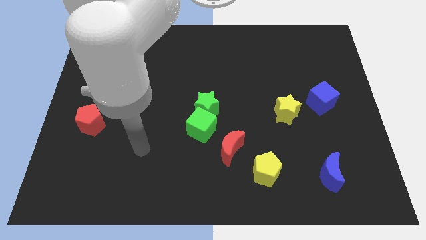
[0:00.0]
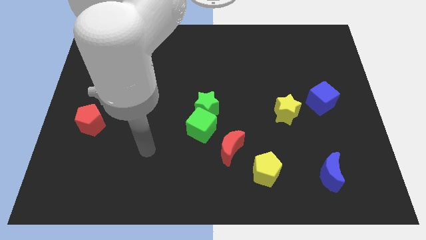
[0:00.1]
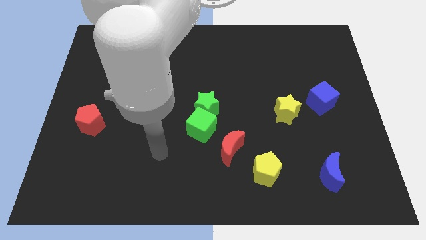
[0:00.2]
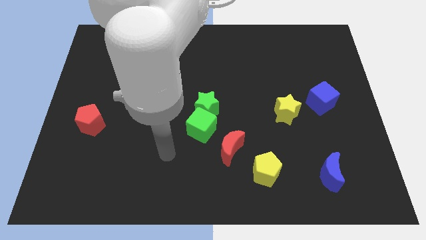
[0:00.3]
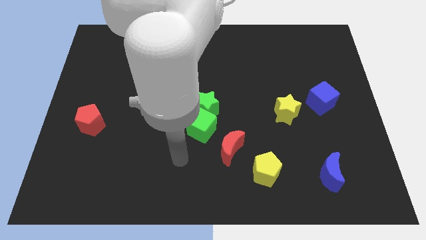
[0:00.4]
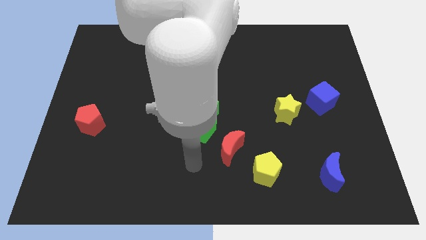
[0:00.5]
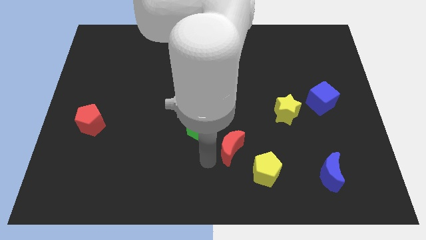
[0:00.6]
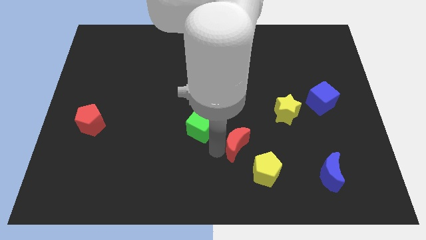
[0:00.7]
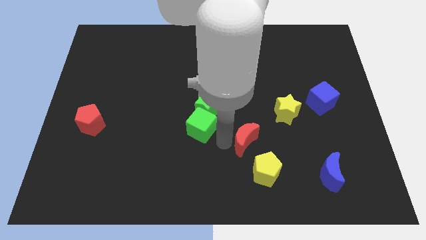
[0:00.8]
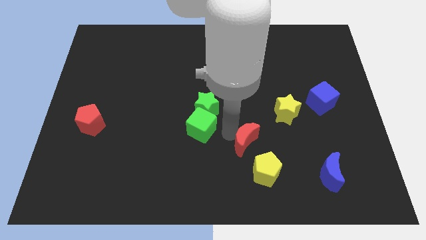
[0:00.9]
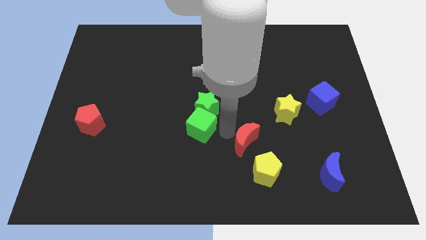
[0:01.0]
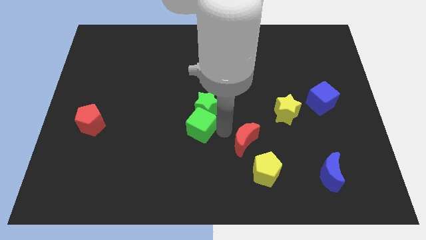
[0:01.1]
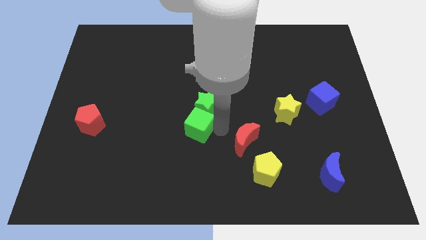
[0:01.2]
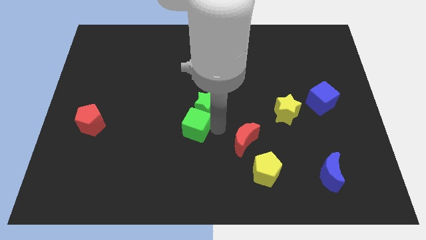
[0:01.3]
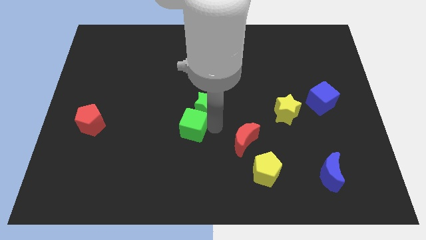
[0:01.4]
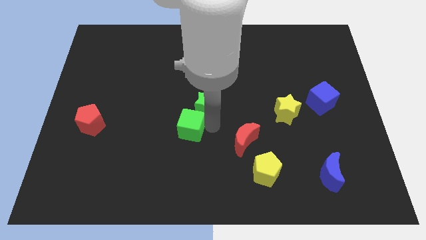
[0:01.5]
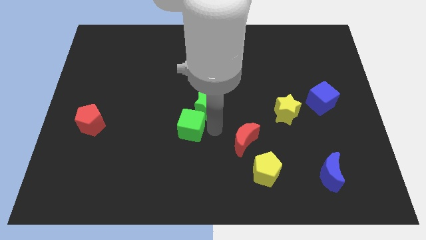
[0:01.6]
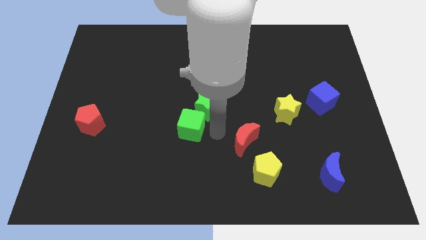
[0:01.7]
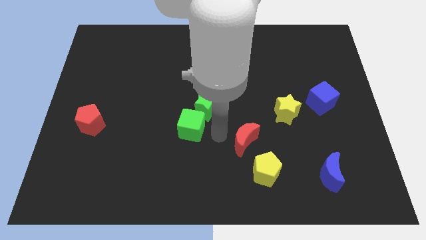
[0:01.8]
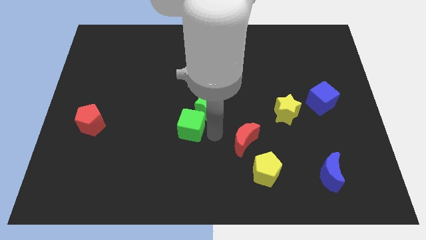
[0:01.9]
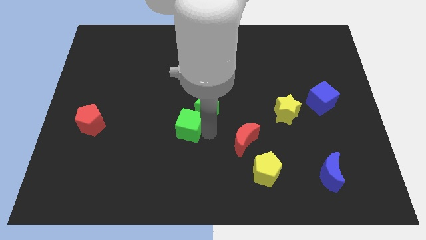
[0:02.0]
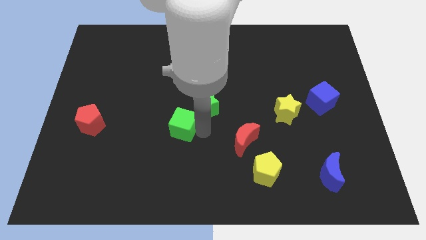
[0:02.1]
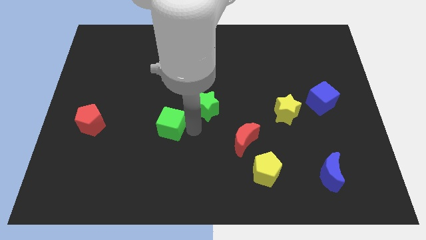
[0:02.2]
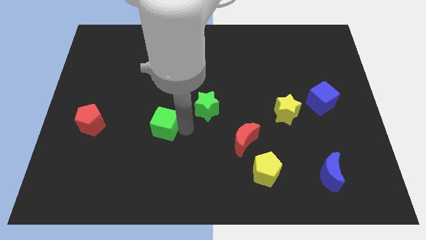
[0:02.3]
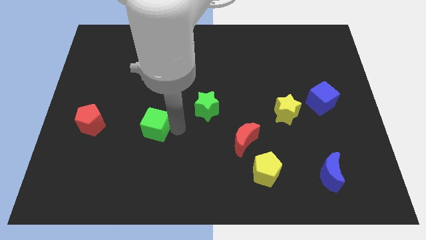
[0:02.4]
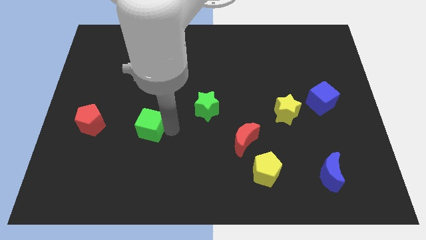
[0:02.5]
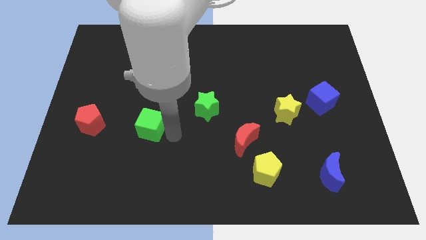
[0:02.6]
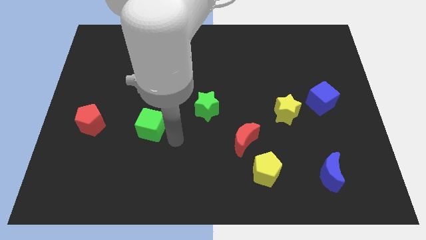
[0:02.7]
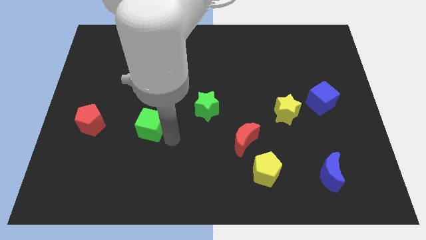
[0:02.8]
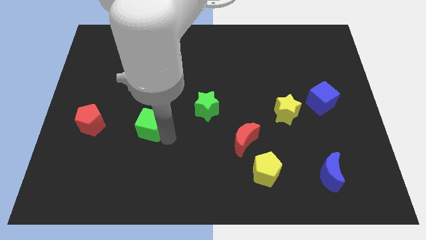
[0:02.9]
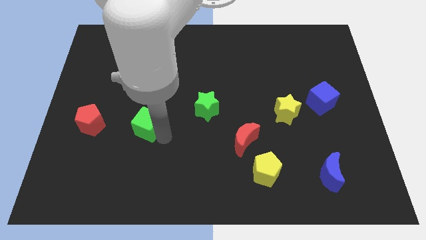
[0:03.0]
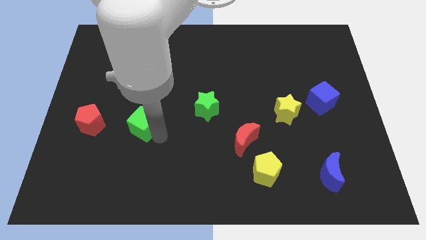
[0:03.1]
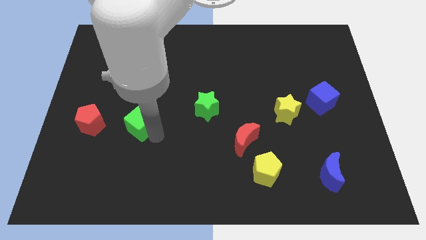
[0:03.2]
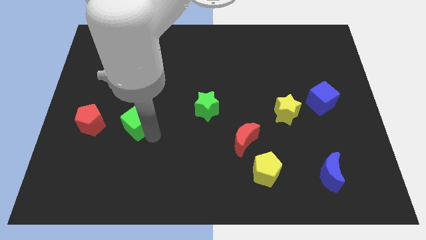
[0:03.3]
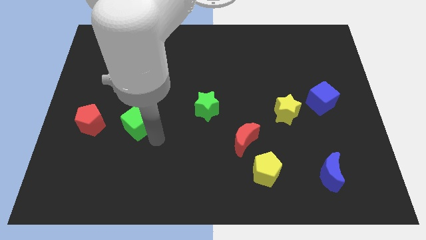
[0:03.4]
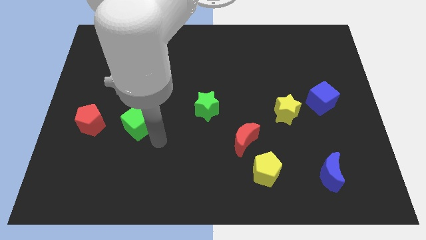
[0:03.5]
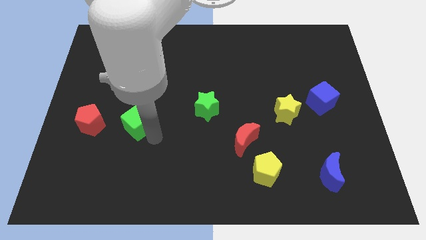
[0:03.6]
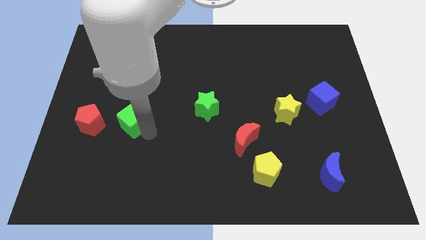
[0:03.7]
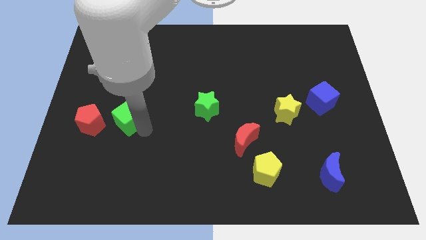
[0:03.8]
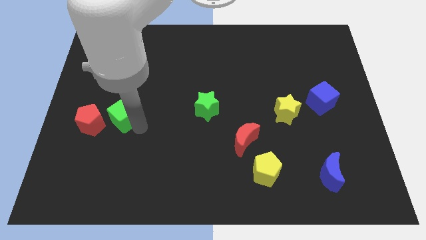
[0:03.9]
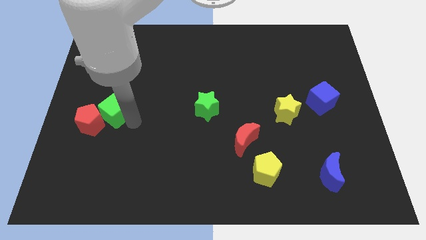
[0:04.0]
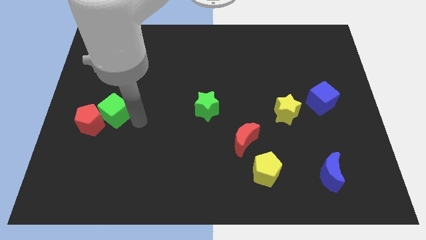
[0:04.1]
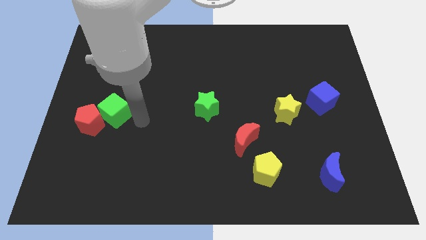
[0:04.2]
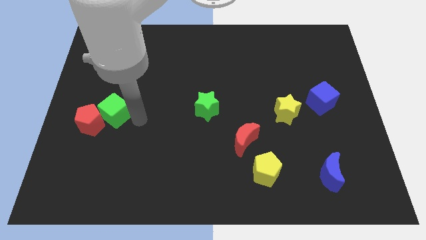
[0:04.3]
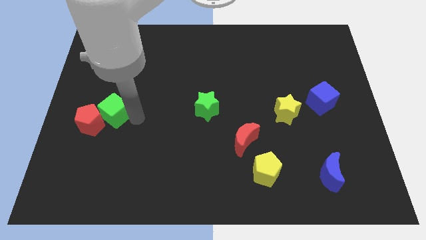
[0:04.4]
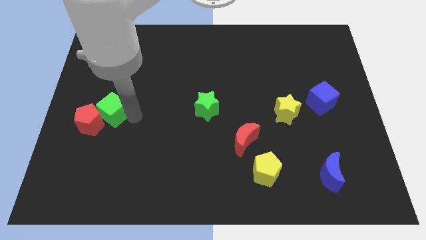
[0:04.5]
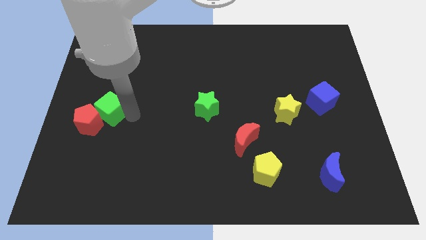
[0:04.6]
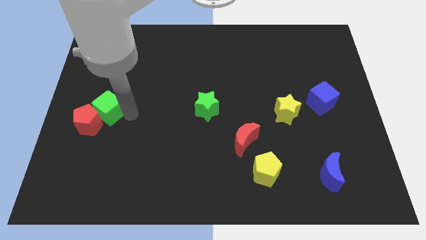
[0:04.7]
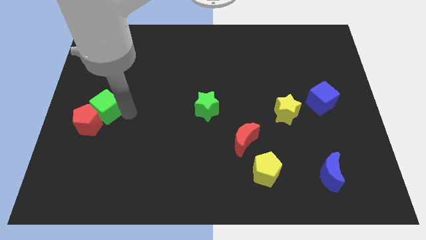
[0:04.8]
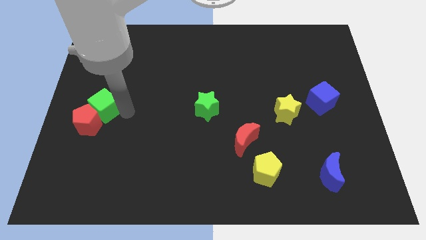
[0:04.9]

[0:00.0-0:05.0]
move the green cube to the center left

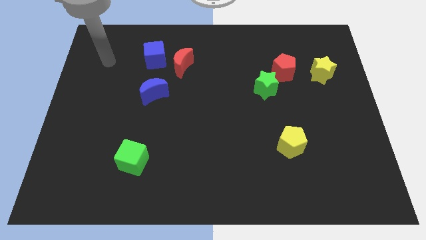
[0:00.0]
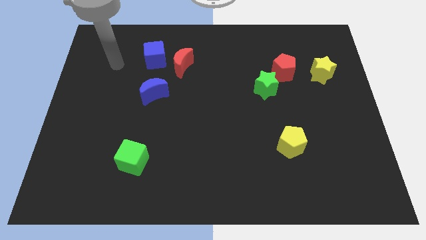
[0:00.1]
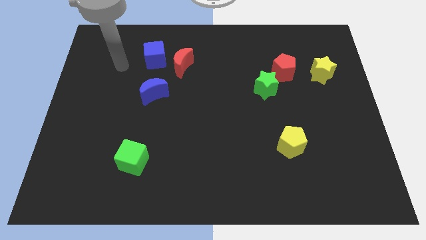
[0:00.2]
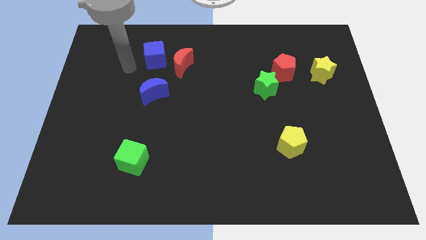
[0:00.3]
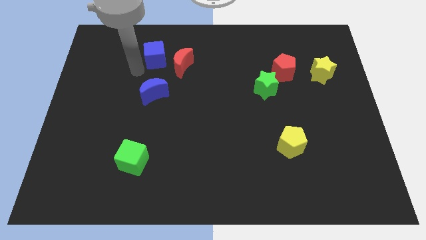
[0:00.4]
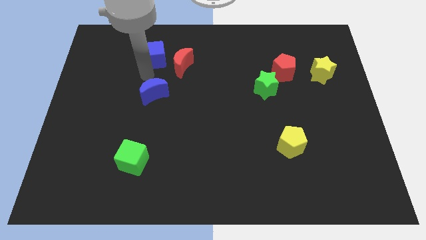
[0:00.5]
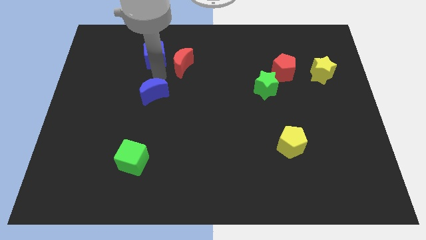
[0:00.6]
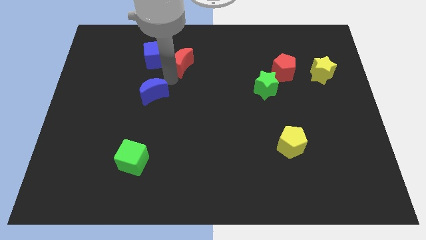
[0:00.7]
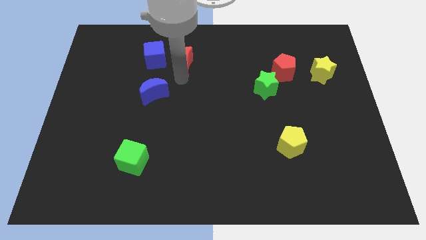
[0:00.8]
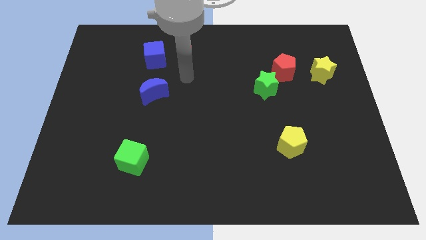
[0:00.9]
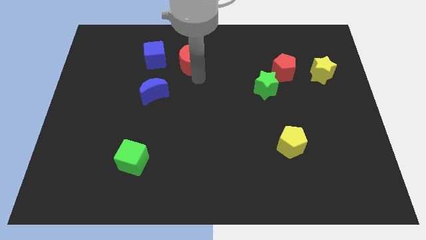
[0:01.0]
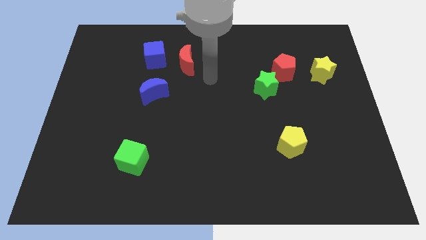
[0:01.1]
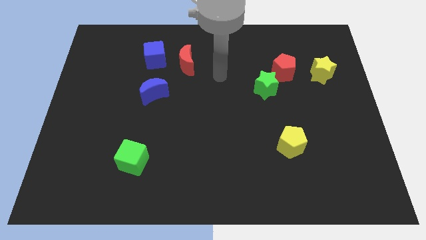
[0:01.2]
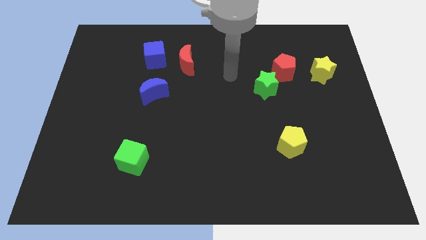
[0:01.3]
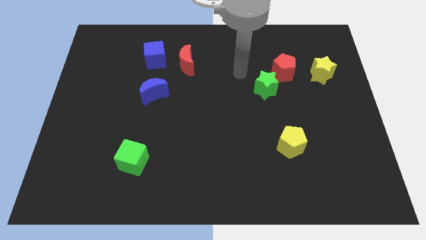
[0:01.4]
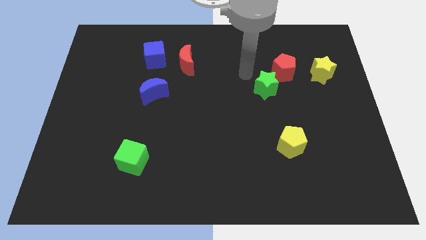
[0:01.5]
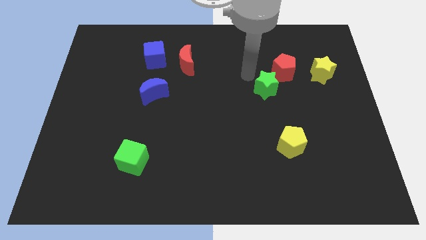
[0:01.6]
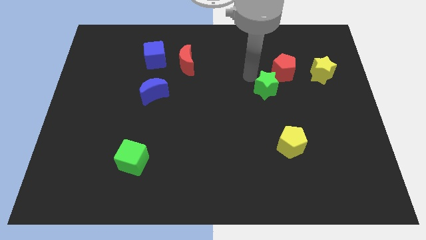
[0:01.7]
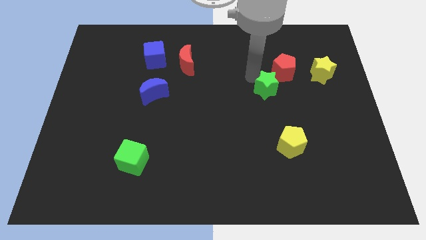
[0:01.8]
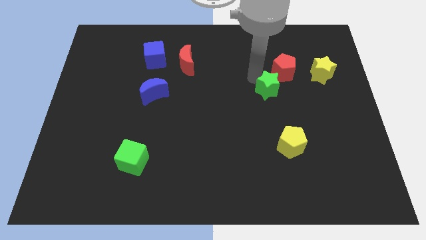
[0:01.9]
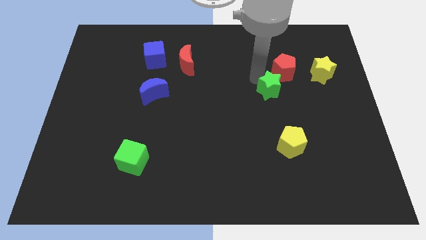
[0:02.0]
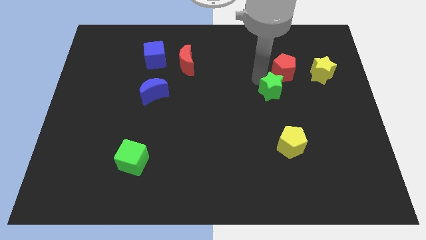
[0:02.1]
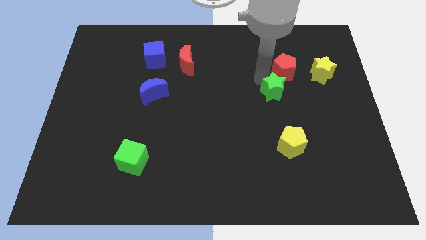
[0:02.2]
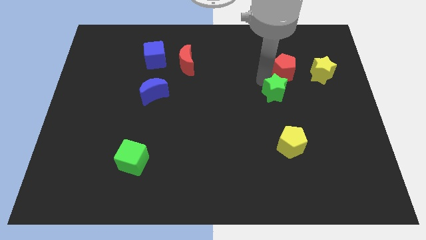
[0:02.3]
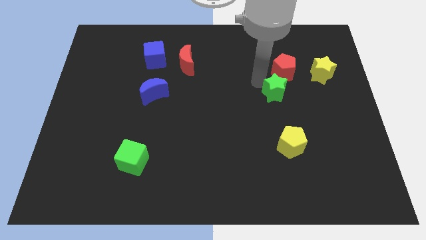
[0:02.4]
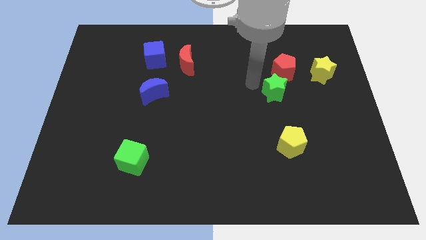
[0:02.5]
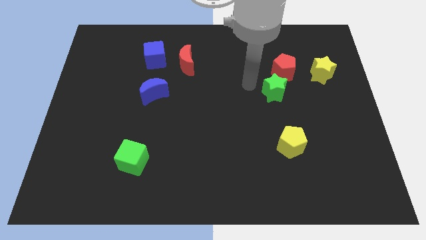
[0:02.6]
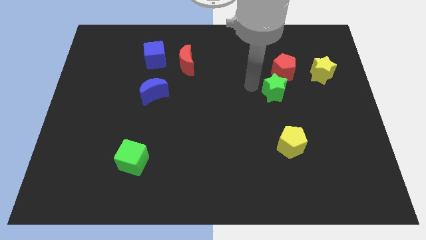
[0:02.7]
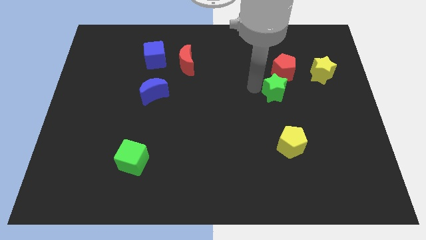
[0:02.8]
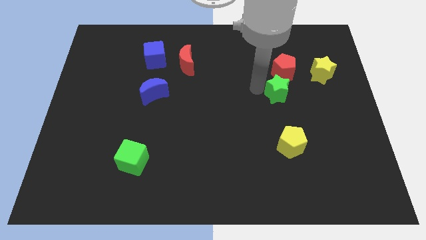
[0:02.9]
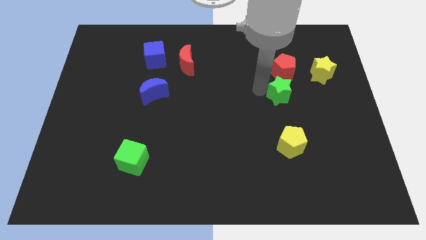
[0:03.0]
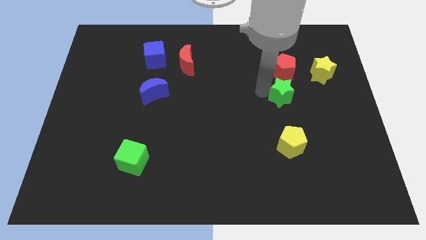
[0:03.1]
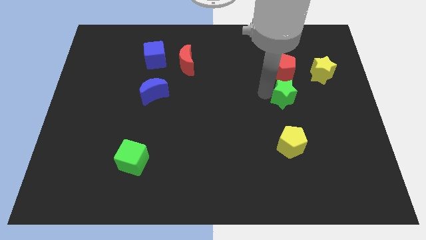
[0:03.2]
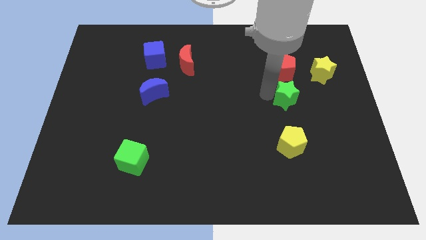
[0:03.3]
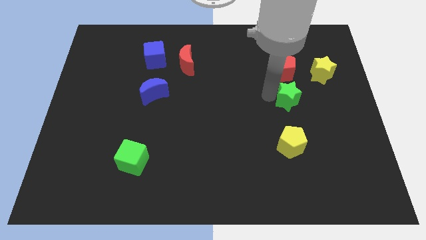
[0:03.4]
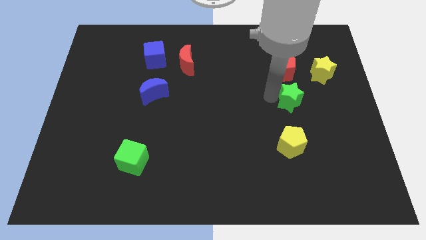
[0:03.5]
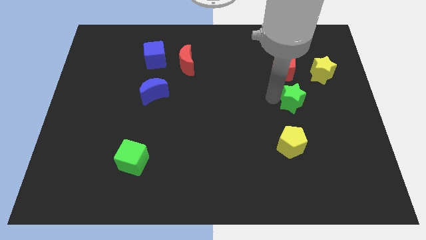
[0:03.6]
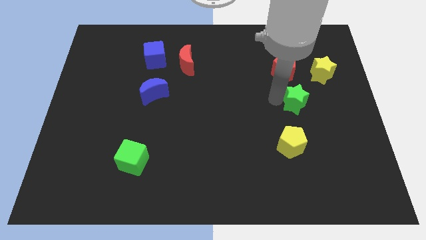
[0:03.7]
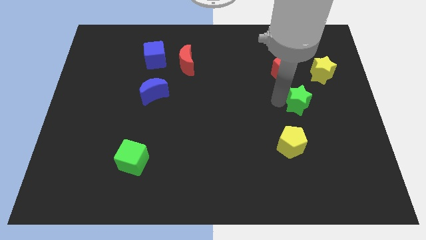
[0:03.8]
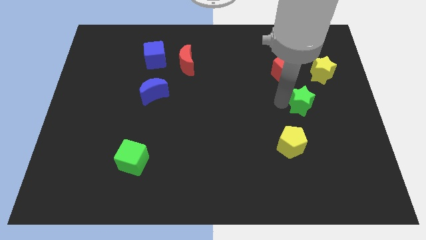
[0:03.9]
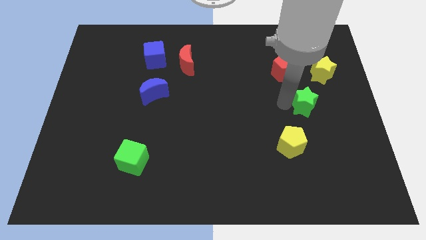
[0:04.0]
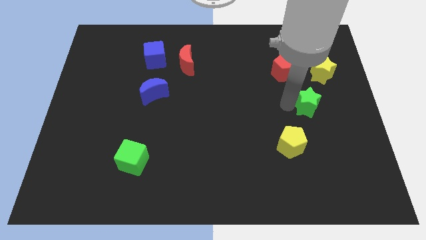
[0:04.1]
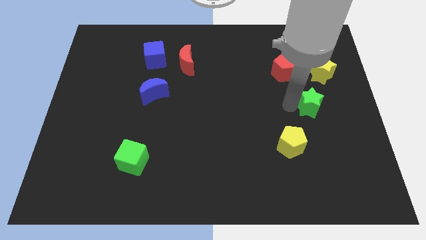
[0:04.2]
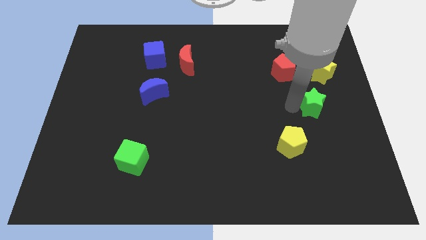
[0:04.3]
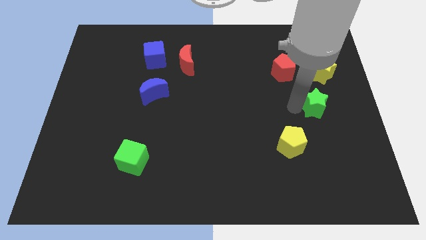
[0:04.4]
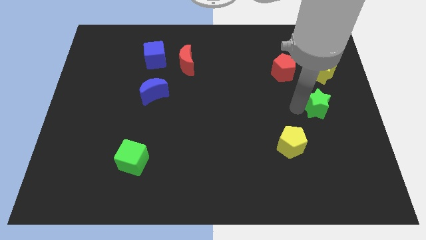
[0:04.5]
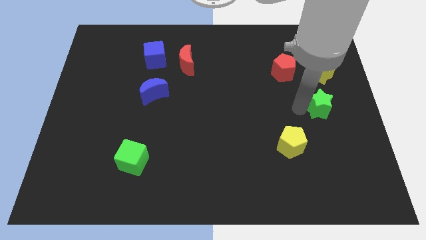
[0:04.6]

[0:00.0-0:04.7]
slide the green star to the center right
